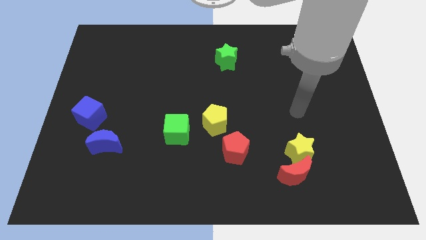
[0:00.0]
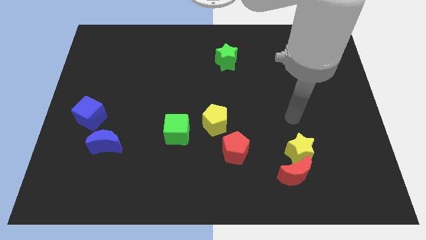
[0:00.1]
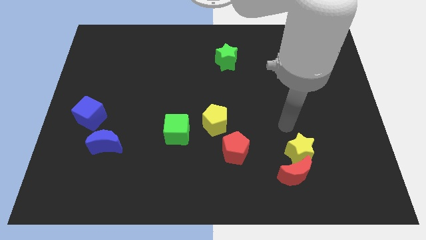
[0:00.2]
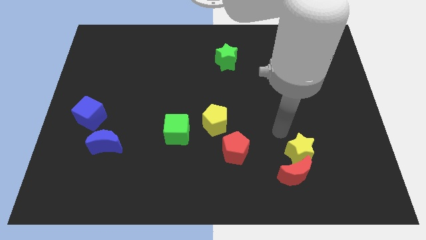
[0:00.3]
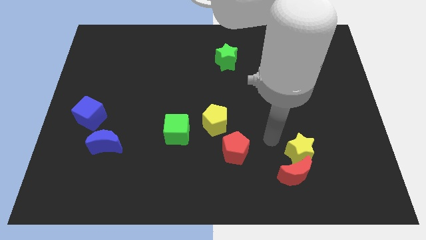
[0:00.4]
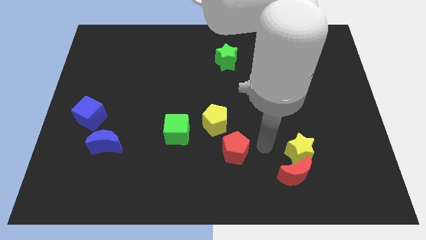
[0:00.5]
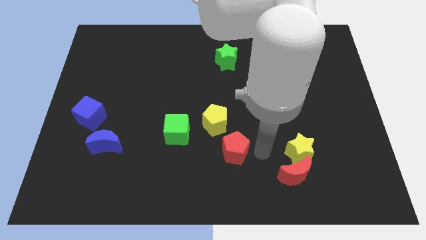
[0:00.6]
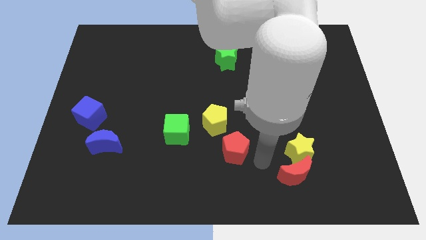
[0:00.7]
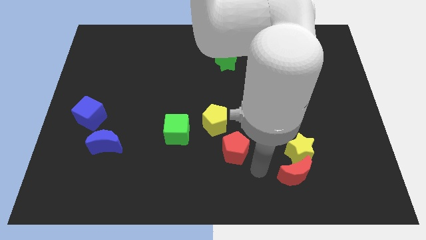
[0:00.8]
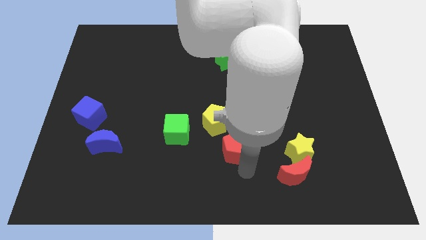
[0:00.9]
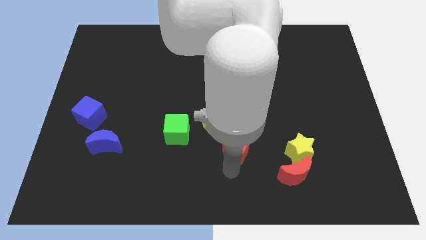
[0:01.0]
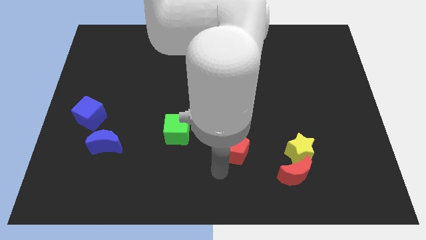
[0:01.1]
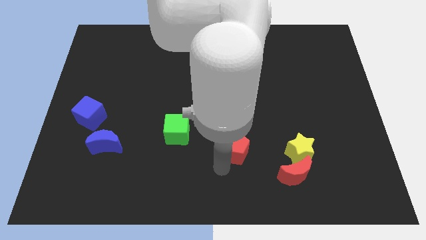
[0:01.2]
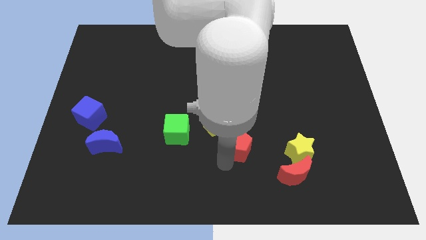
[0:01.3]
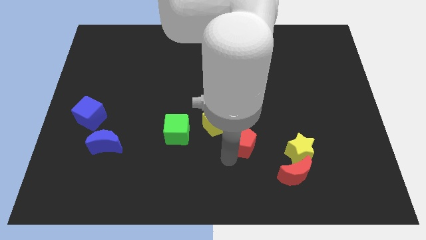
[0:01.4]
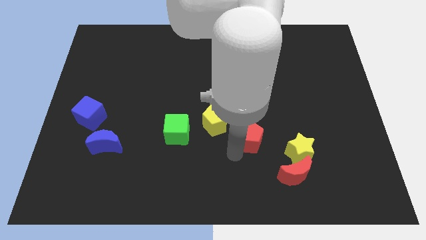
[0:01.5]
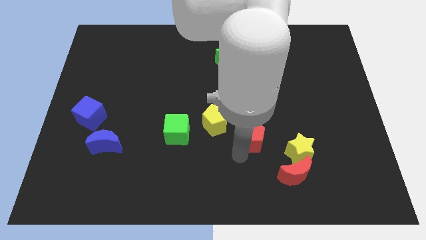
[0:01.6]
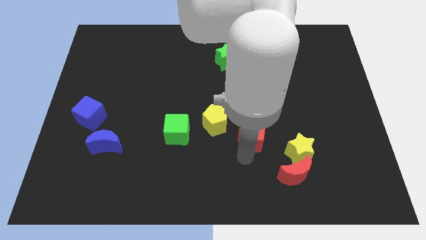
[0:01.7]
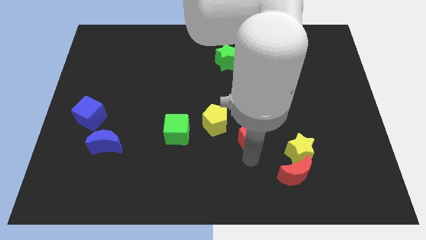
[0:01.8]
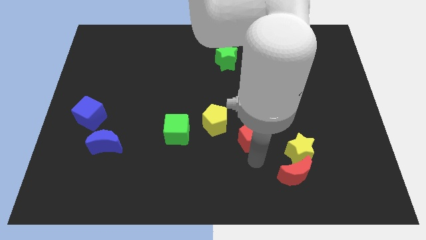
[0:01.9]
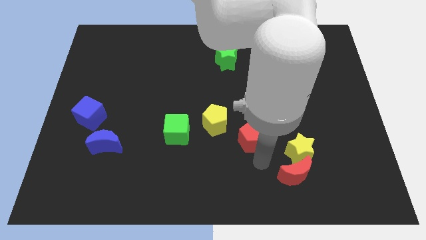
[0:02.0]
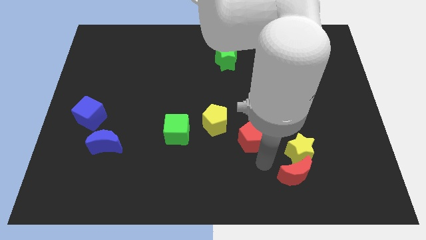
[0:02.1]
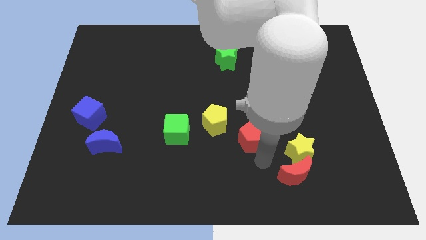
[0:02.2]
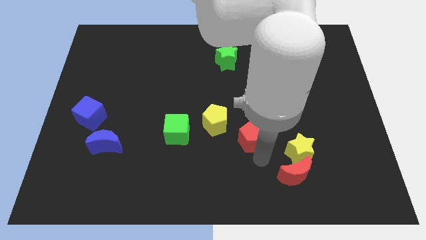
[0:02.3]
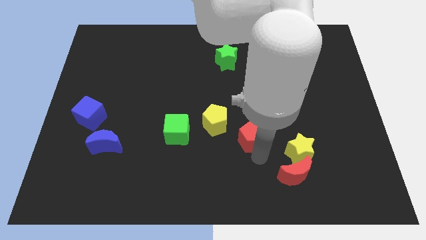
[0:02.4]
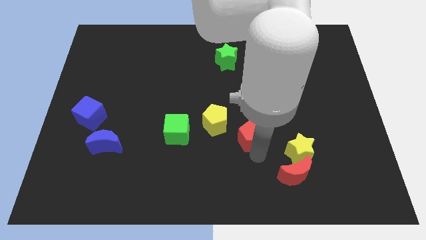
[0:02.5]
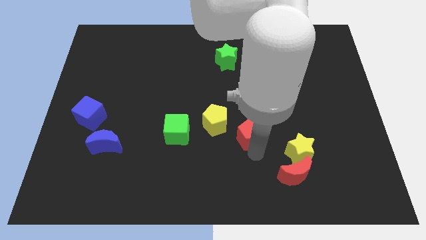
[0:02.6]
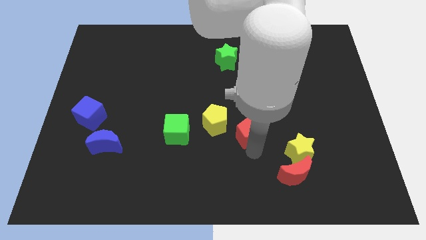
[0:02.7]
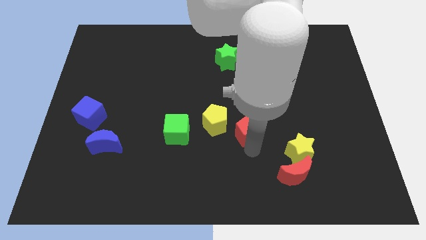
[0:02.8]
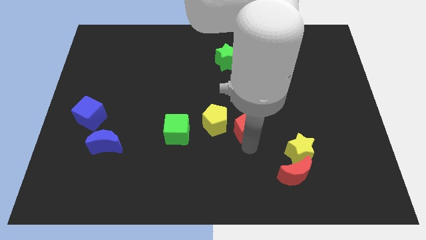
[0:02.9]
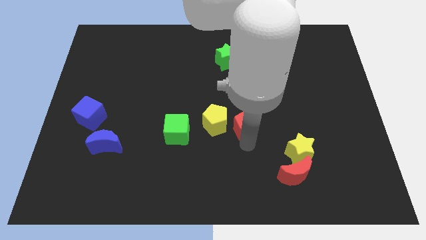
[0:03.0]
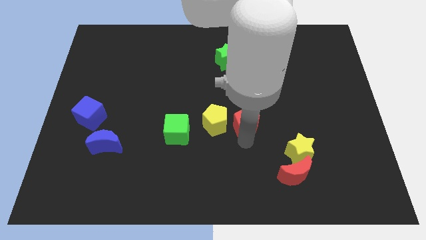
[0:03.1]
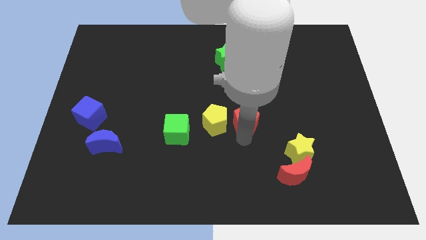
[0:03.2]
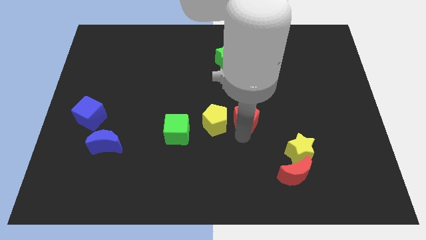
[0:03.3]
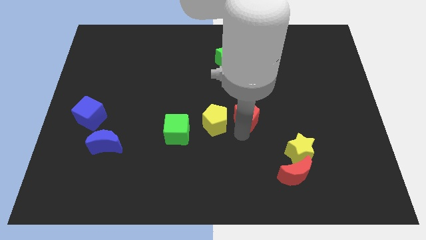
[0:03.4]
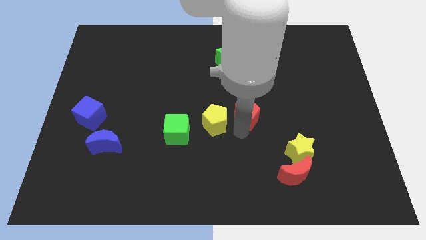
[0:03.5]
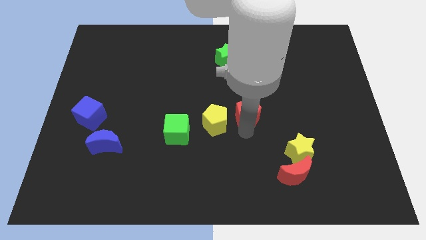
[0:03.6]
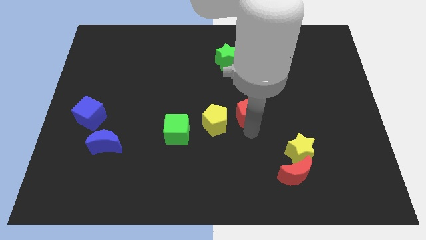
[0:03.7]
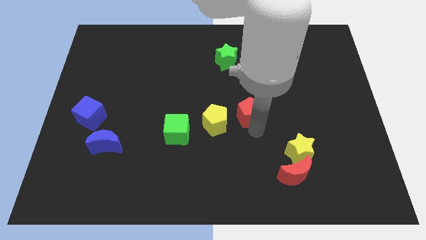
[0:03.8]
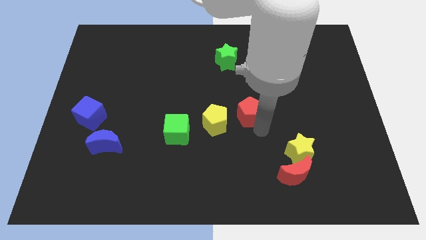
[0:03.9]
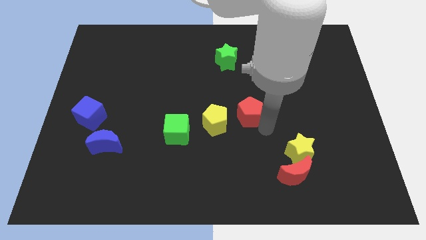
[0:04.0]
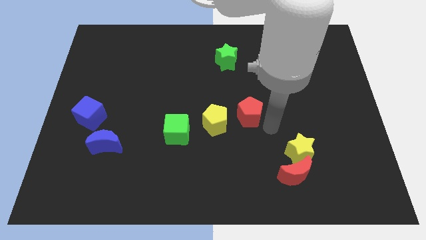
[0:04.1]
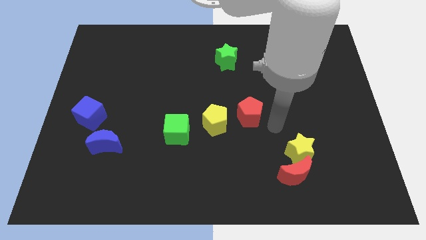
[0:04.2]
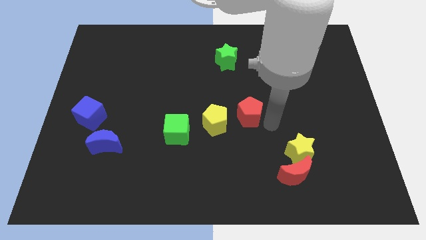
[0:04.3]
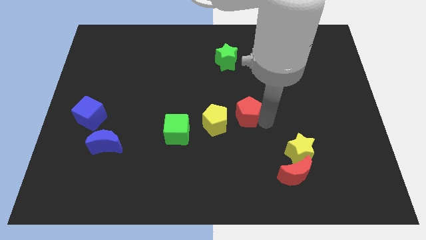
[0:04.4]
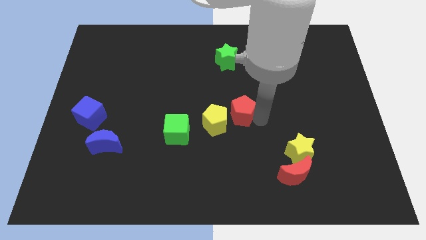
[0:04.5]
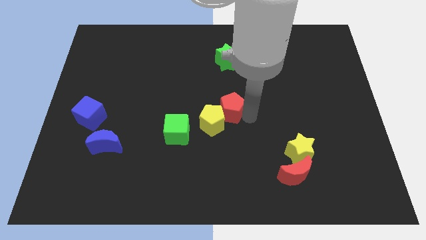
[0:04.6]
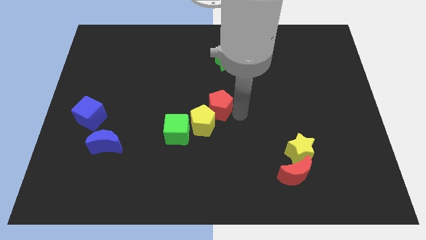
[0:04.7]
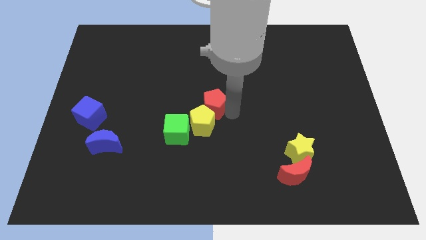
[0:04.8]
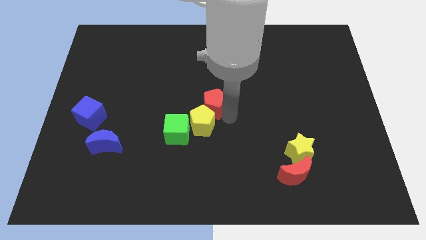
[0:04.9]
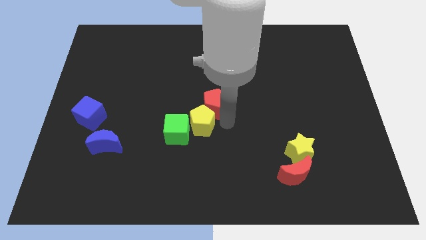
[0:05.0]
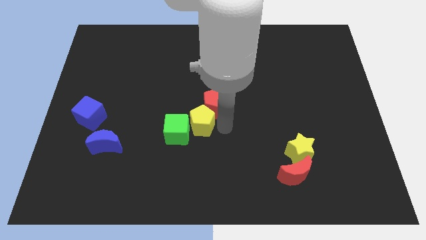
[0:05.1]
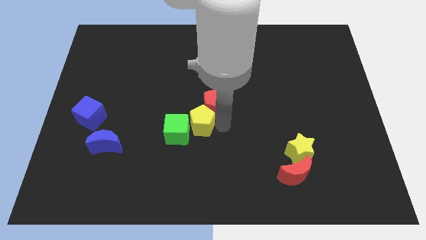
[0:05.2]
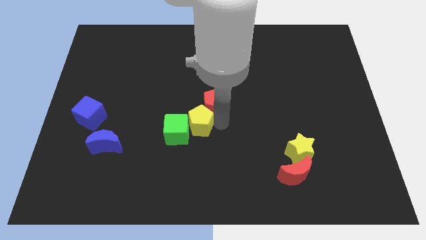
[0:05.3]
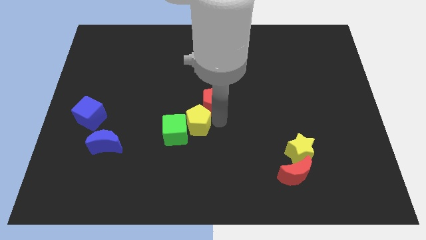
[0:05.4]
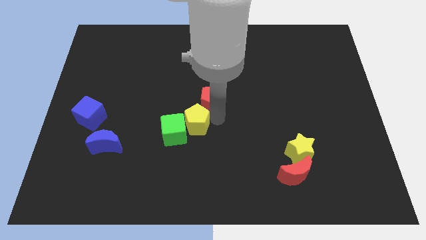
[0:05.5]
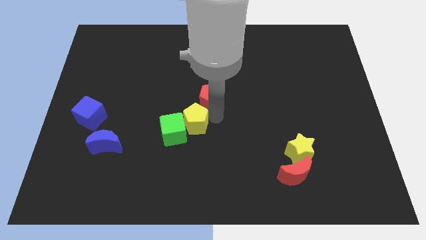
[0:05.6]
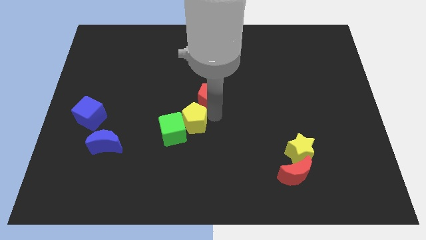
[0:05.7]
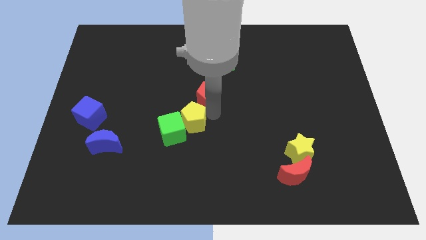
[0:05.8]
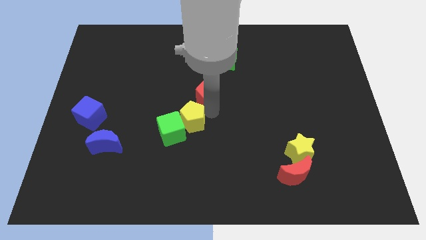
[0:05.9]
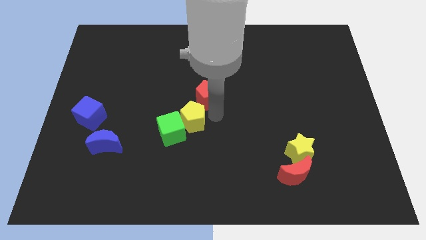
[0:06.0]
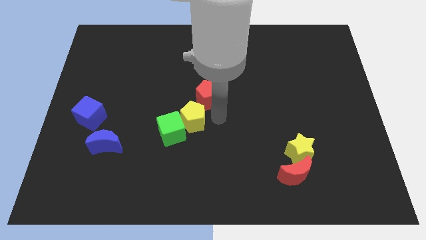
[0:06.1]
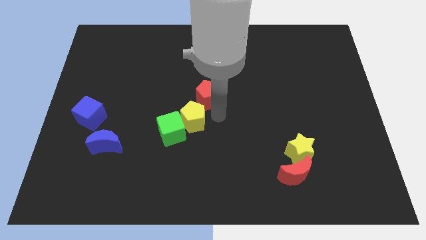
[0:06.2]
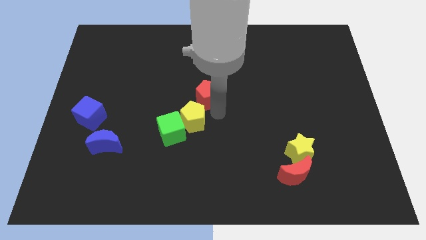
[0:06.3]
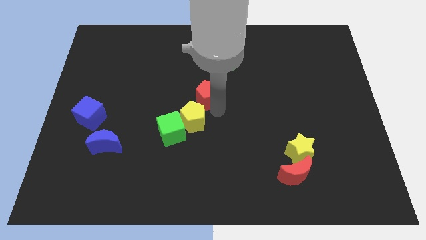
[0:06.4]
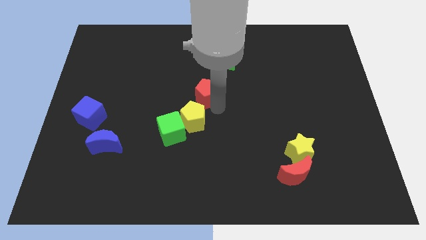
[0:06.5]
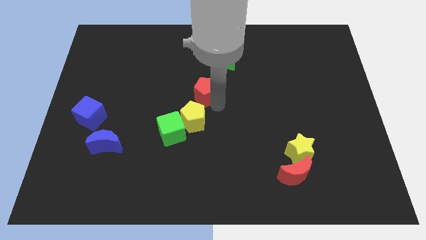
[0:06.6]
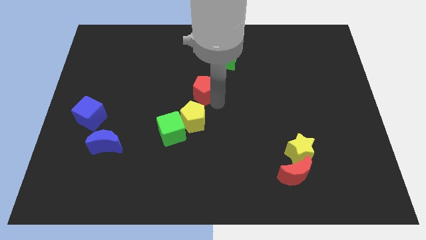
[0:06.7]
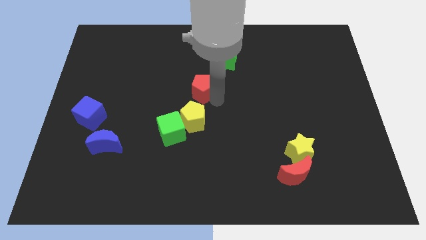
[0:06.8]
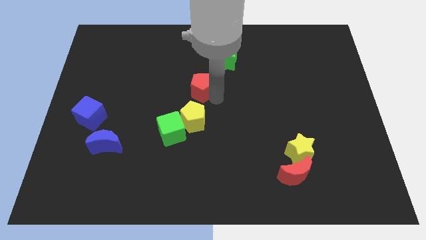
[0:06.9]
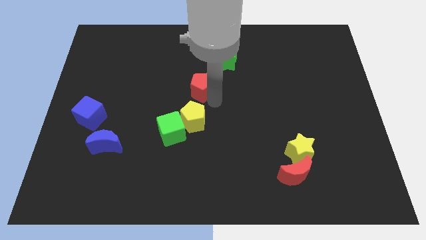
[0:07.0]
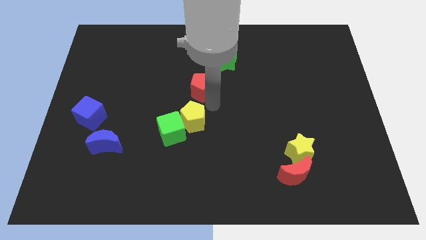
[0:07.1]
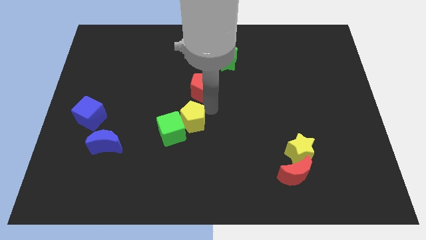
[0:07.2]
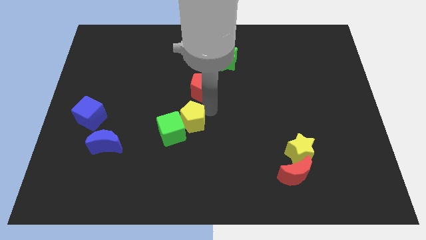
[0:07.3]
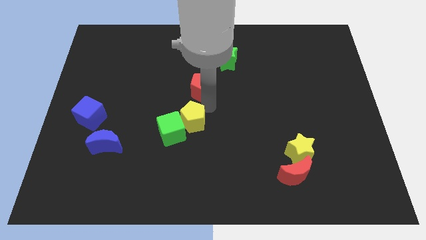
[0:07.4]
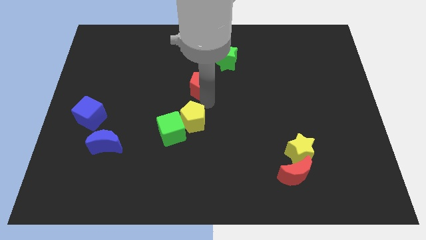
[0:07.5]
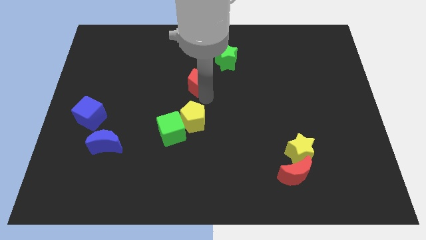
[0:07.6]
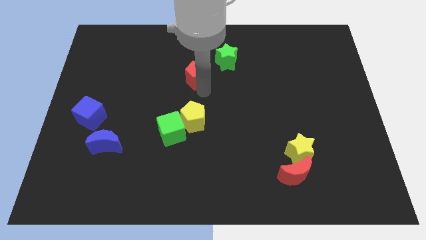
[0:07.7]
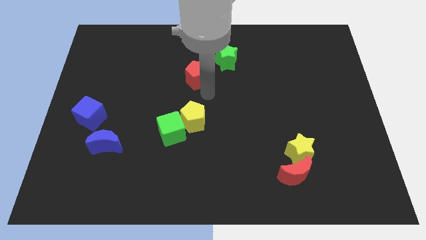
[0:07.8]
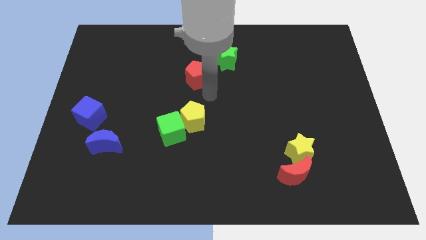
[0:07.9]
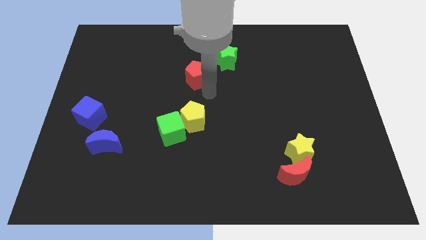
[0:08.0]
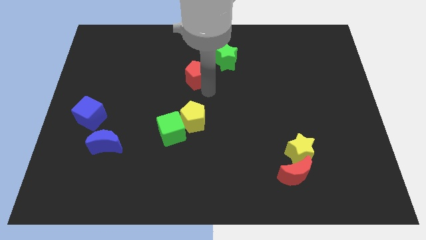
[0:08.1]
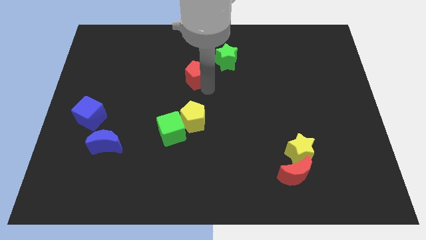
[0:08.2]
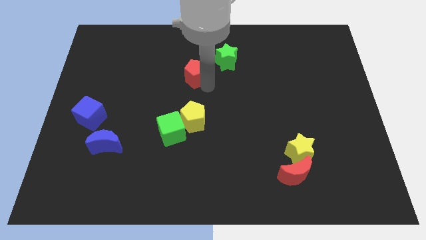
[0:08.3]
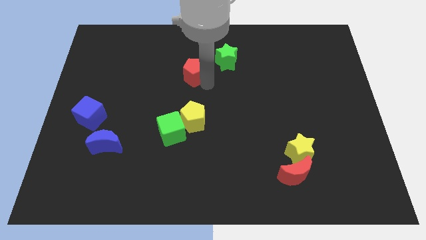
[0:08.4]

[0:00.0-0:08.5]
slide the red pentagon to the left of the green star
